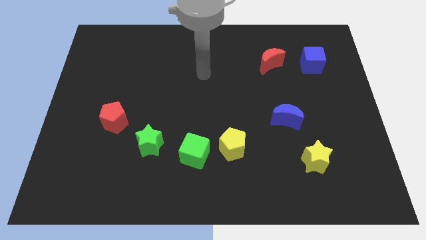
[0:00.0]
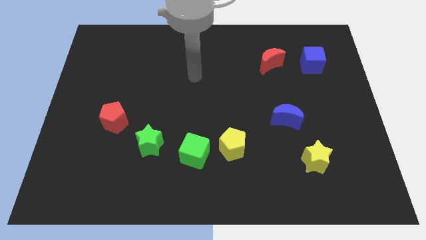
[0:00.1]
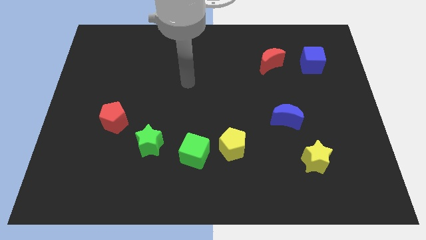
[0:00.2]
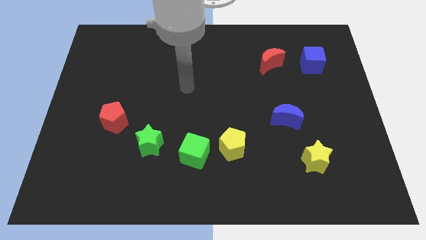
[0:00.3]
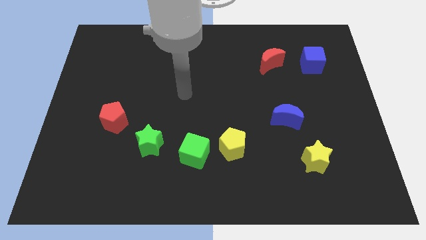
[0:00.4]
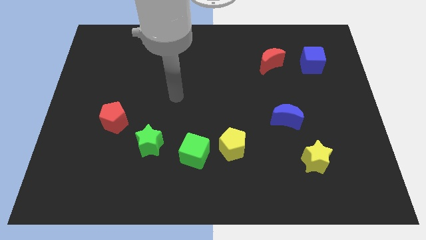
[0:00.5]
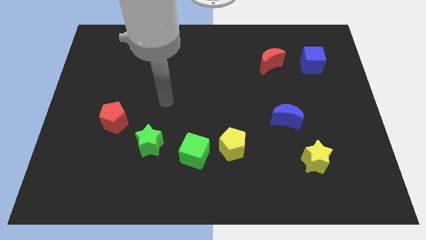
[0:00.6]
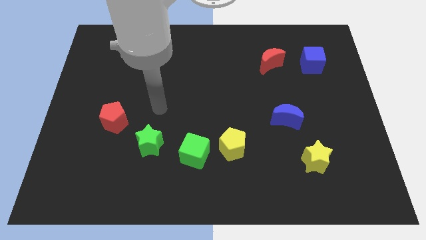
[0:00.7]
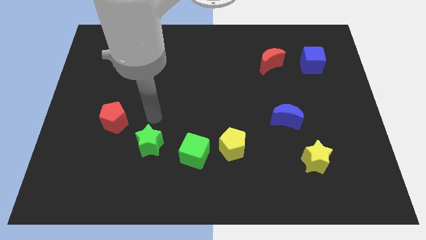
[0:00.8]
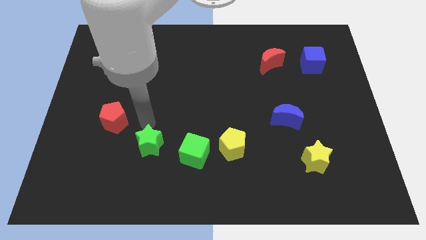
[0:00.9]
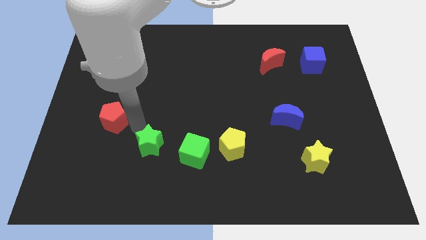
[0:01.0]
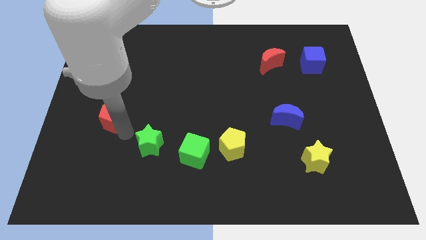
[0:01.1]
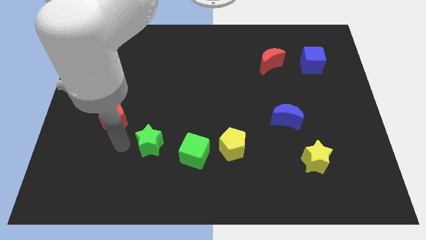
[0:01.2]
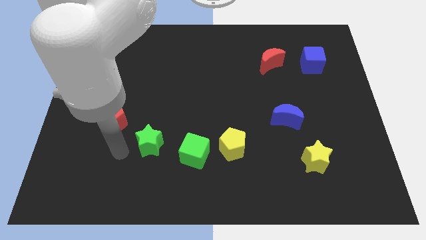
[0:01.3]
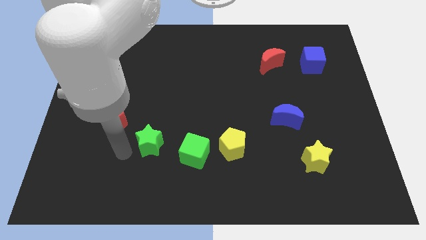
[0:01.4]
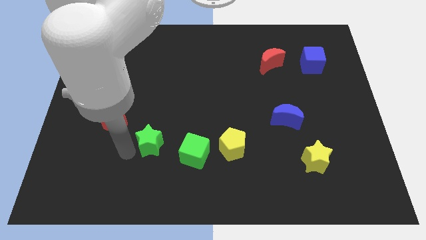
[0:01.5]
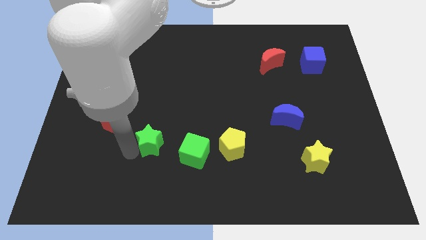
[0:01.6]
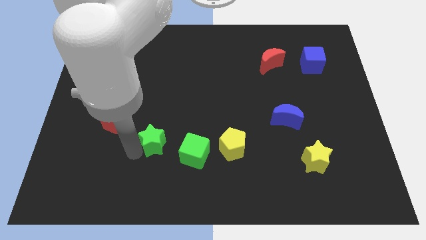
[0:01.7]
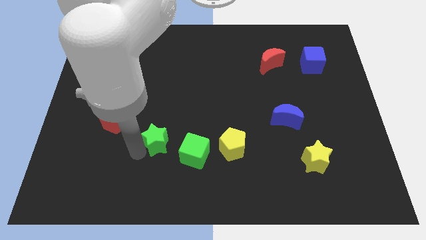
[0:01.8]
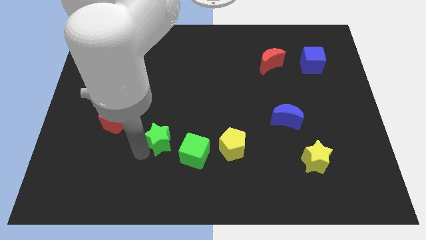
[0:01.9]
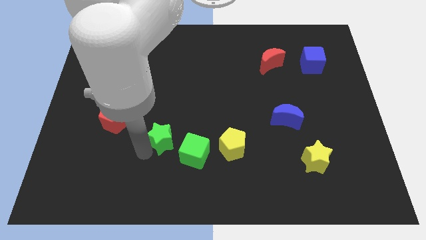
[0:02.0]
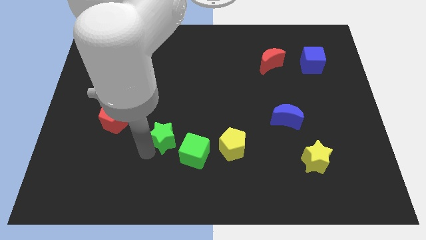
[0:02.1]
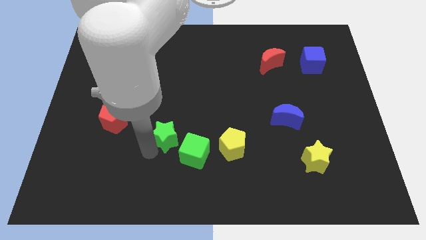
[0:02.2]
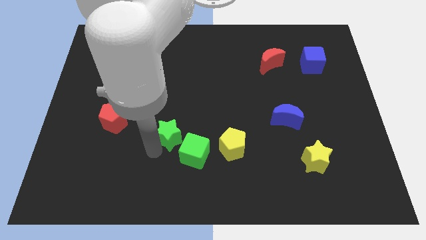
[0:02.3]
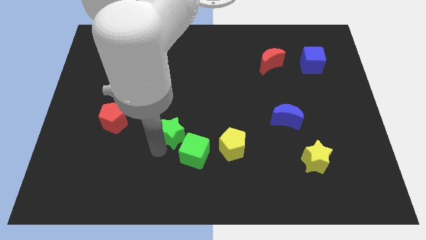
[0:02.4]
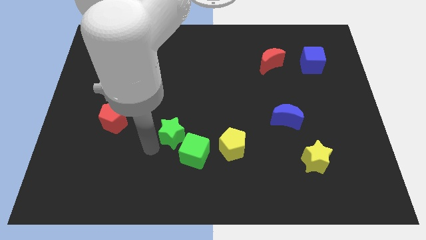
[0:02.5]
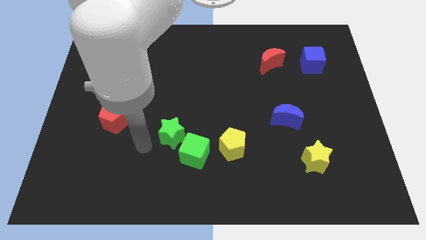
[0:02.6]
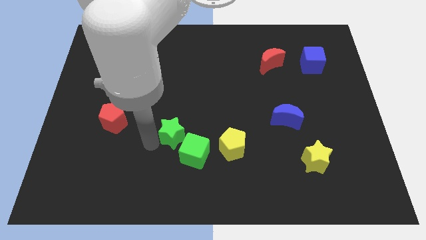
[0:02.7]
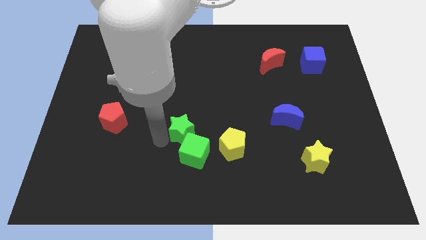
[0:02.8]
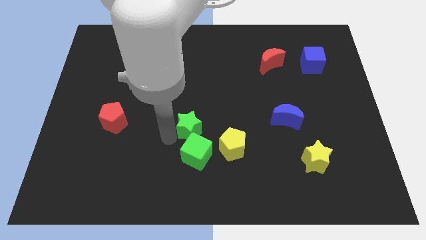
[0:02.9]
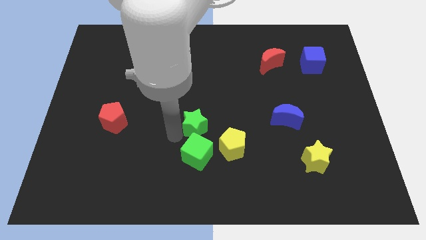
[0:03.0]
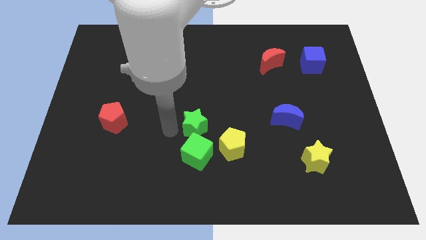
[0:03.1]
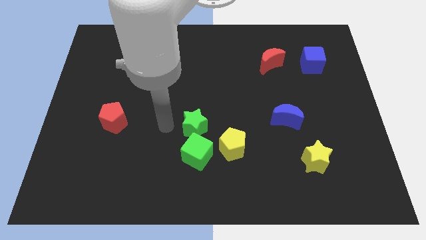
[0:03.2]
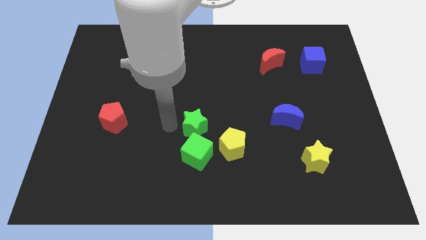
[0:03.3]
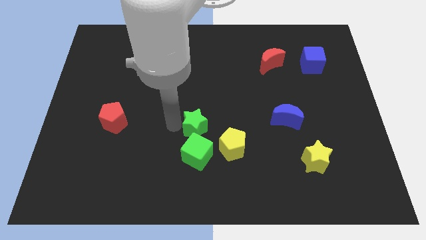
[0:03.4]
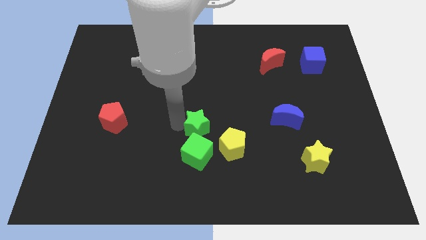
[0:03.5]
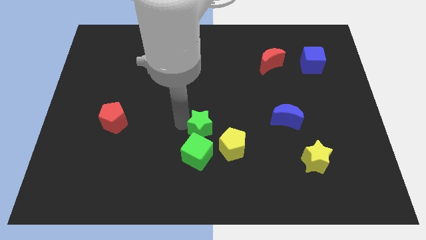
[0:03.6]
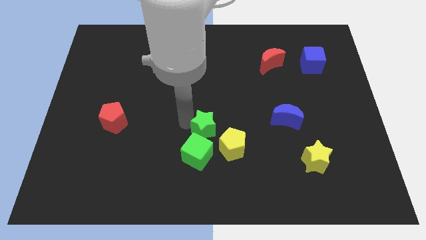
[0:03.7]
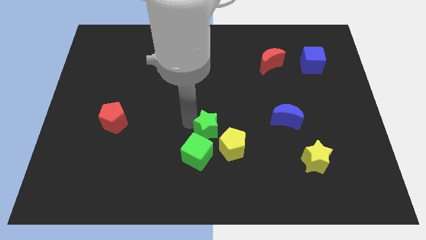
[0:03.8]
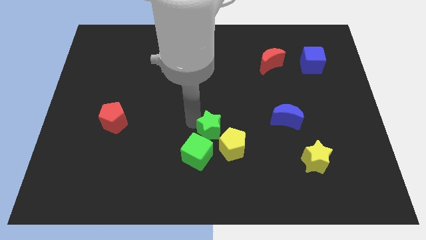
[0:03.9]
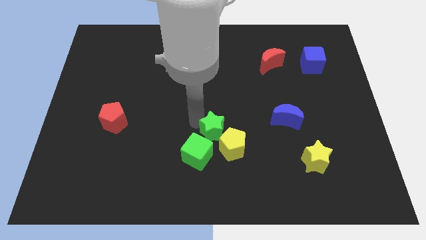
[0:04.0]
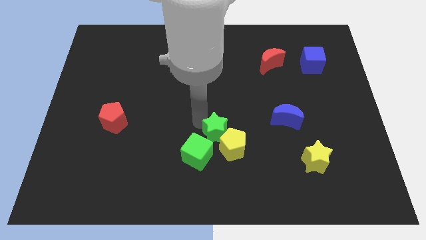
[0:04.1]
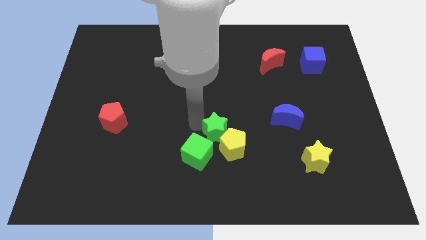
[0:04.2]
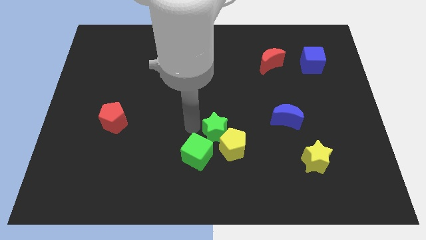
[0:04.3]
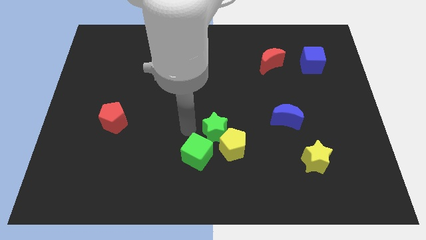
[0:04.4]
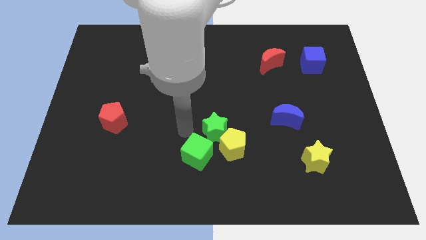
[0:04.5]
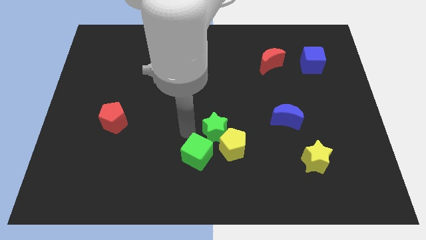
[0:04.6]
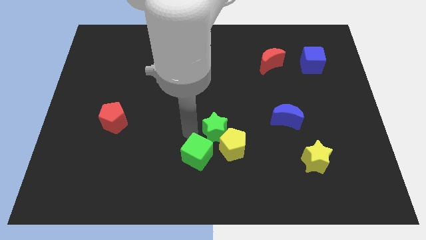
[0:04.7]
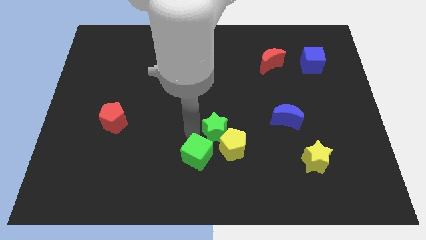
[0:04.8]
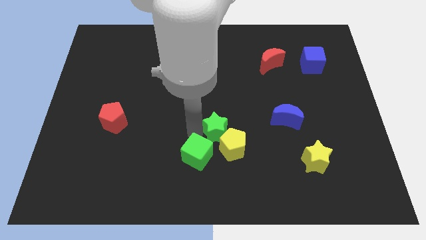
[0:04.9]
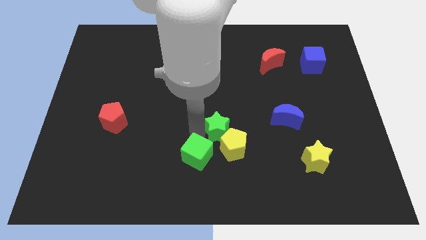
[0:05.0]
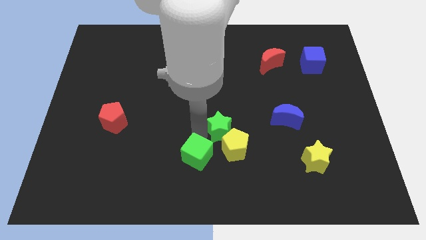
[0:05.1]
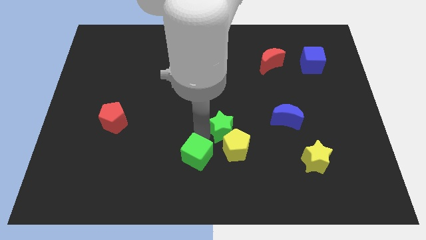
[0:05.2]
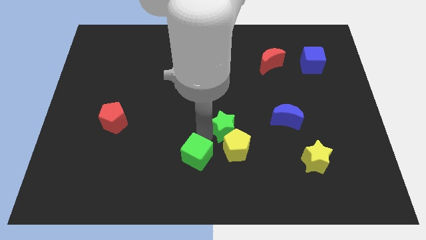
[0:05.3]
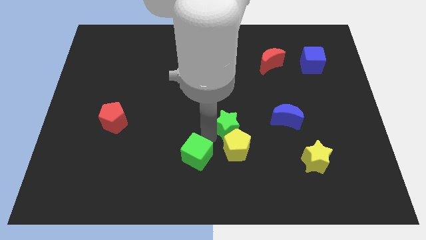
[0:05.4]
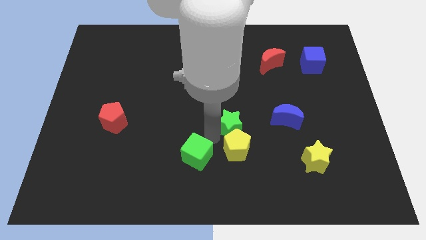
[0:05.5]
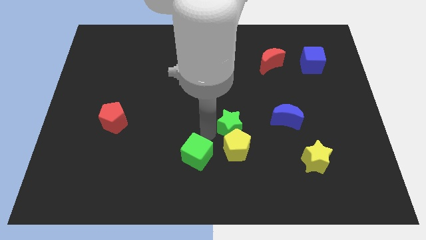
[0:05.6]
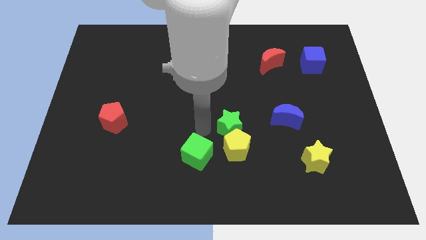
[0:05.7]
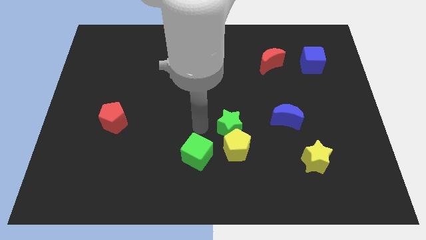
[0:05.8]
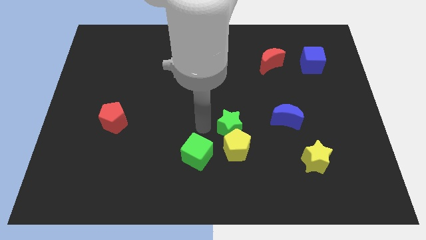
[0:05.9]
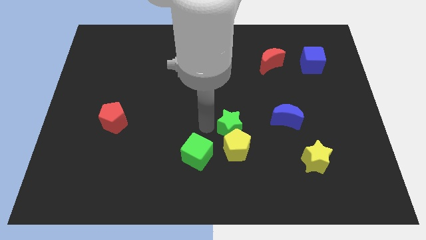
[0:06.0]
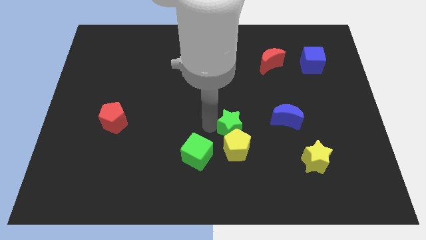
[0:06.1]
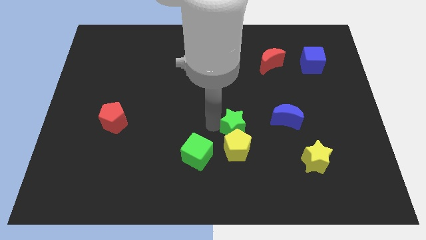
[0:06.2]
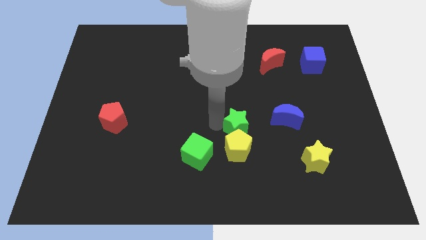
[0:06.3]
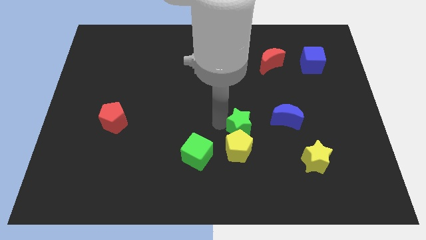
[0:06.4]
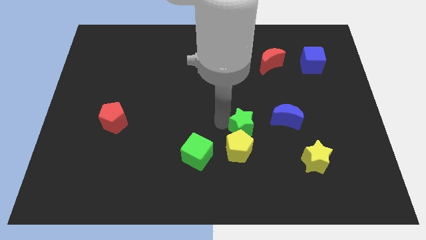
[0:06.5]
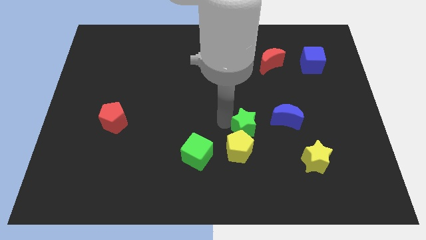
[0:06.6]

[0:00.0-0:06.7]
move the green star right

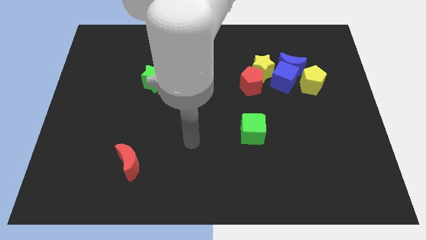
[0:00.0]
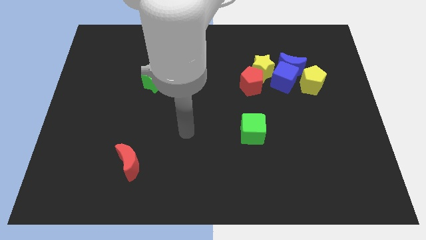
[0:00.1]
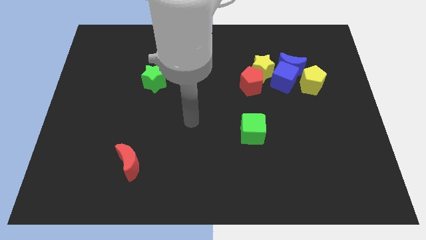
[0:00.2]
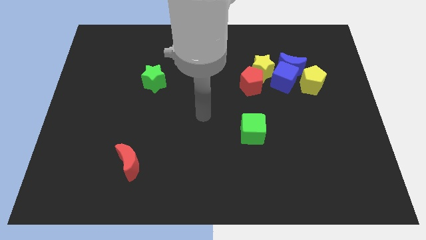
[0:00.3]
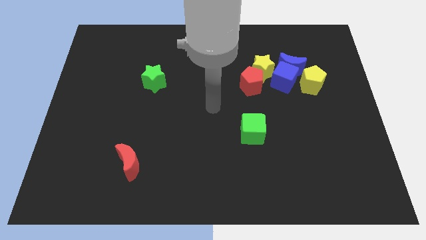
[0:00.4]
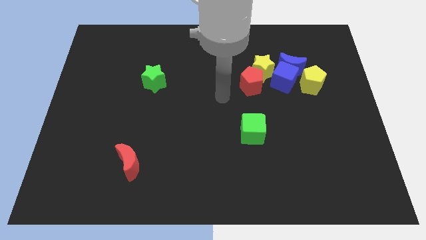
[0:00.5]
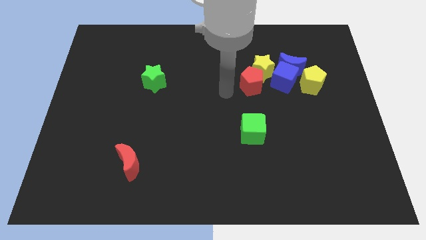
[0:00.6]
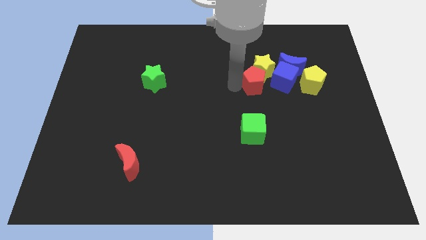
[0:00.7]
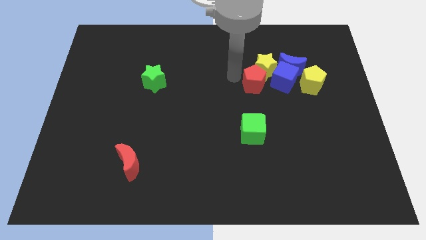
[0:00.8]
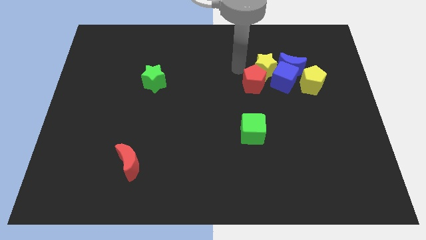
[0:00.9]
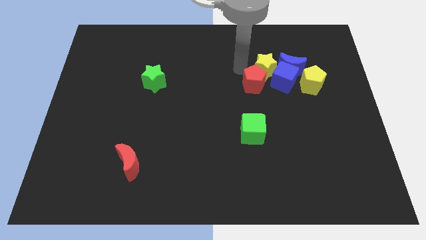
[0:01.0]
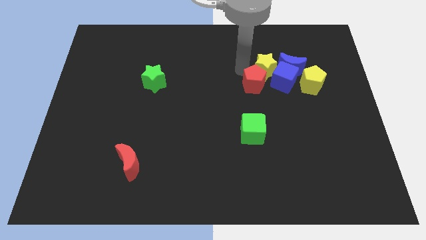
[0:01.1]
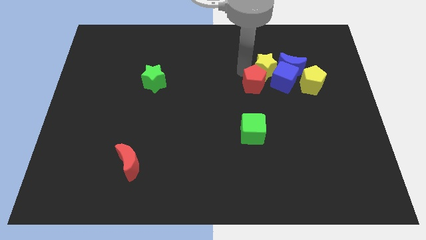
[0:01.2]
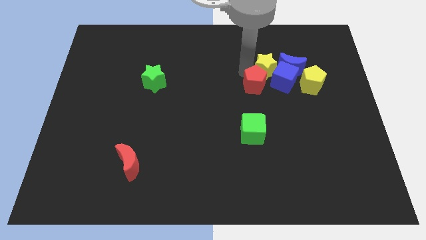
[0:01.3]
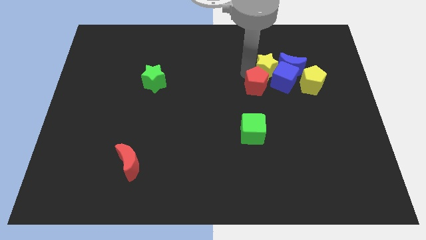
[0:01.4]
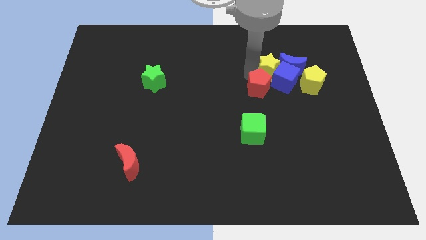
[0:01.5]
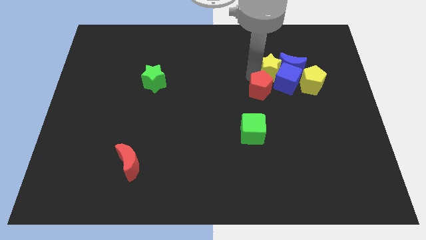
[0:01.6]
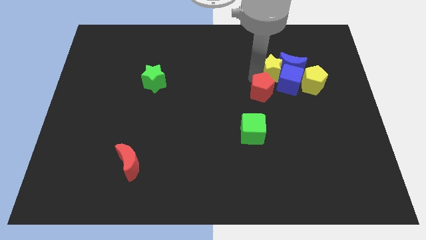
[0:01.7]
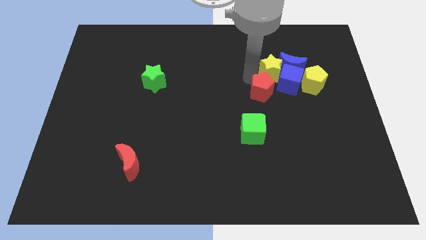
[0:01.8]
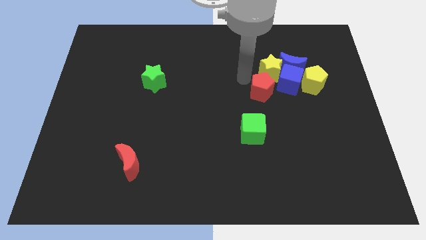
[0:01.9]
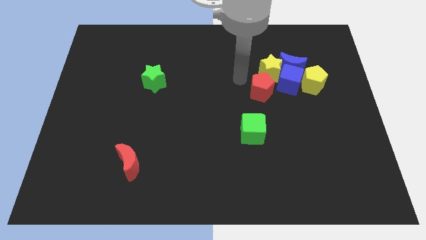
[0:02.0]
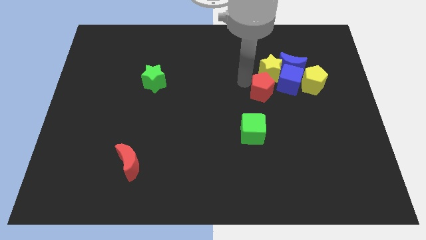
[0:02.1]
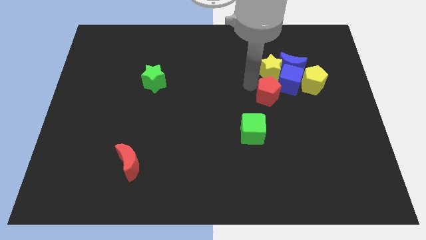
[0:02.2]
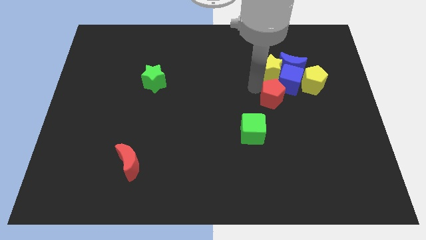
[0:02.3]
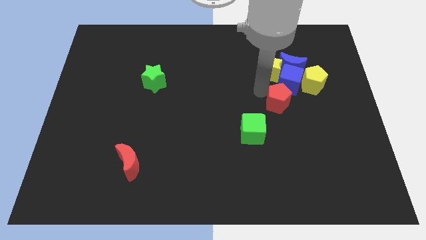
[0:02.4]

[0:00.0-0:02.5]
move the red pentagon a little downwards and right diagonally
